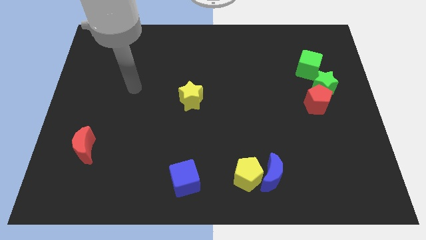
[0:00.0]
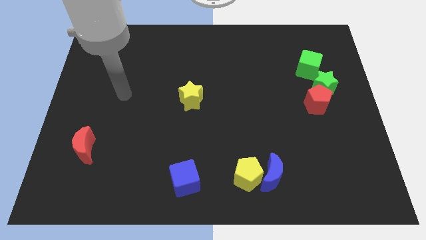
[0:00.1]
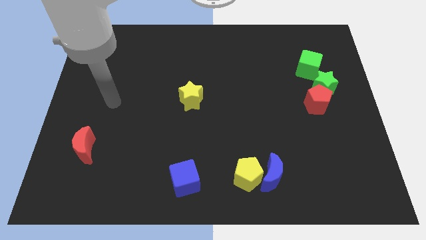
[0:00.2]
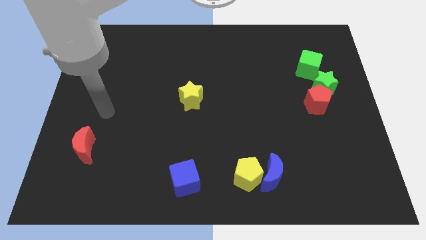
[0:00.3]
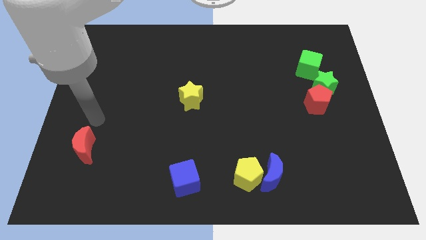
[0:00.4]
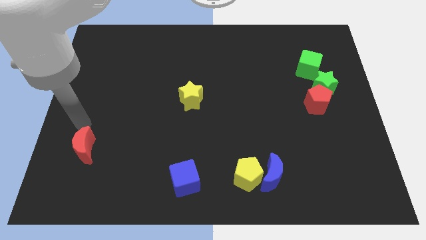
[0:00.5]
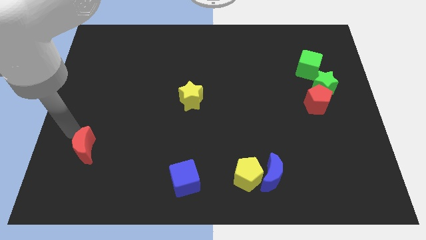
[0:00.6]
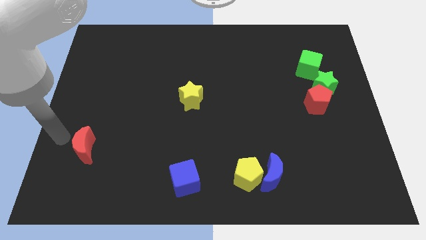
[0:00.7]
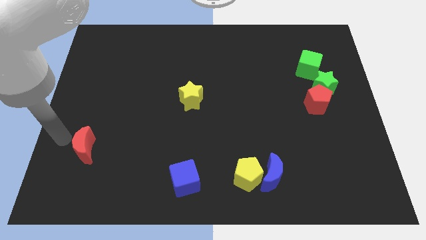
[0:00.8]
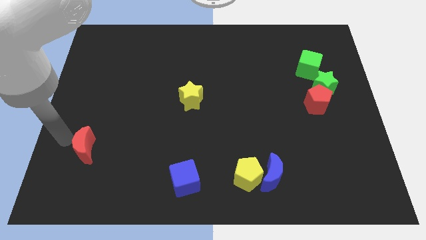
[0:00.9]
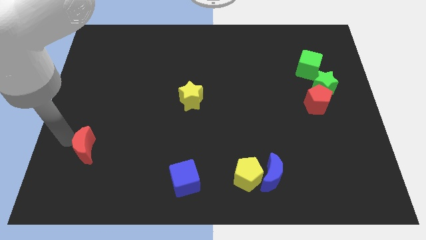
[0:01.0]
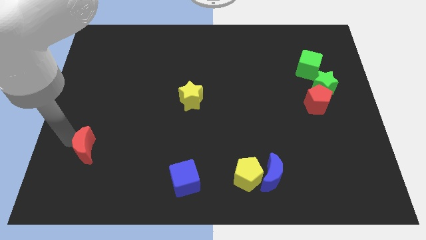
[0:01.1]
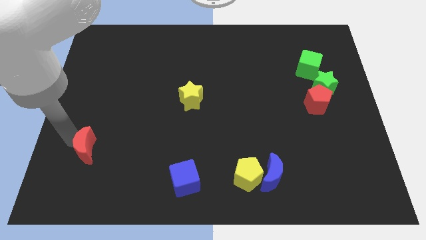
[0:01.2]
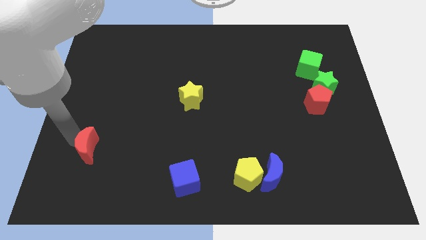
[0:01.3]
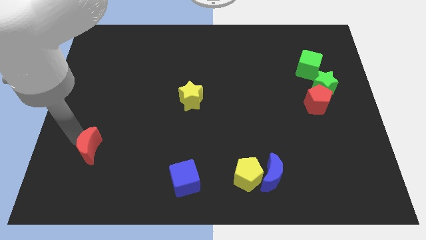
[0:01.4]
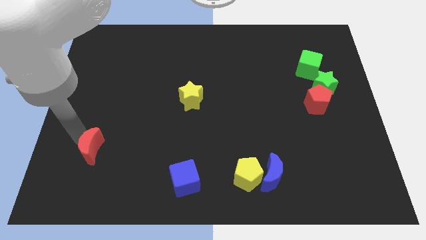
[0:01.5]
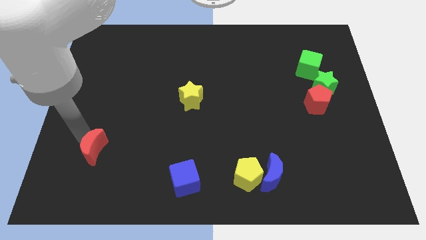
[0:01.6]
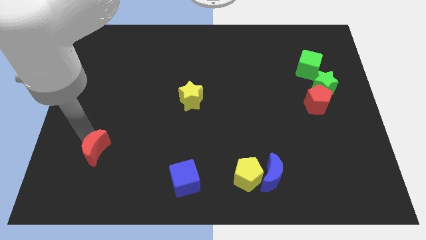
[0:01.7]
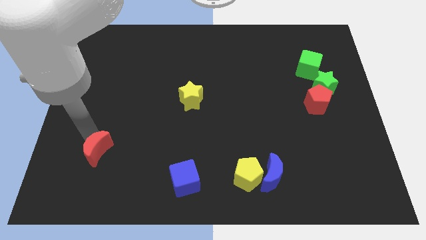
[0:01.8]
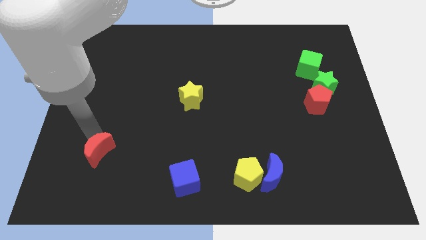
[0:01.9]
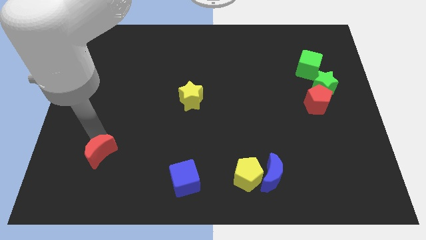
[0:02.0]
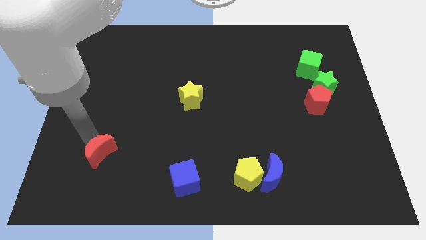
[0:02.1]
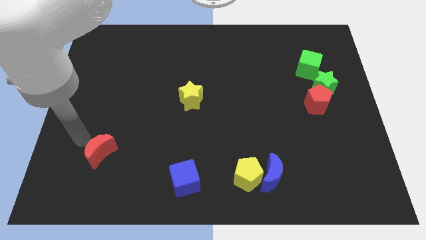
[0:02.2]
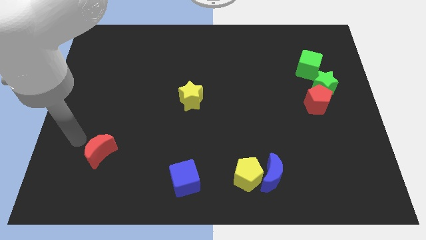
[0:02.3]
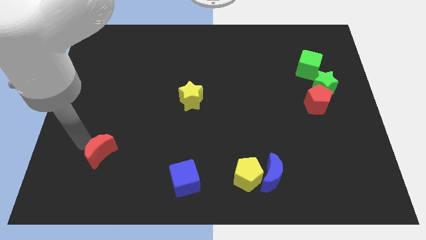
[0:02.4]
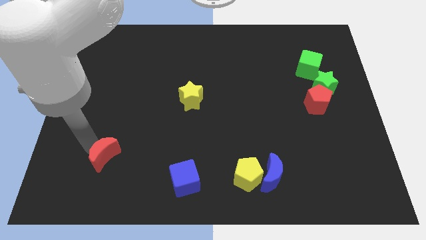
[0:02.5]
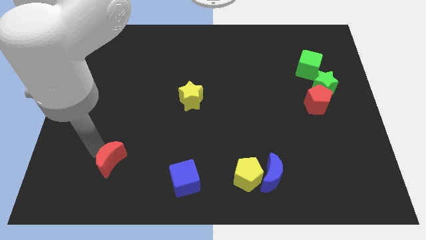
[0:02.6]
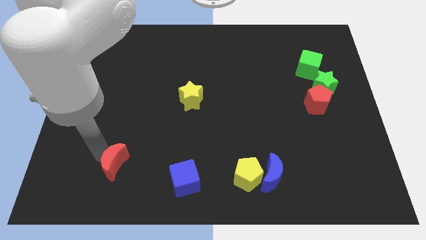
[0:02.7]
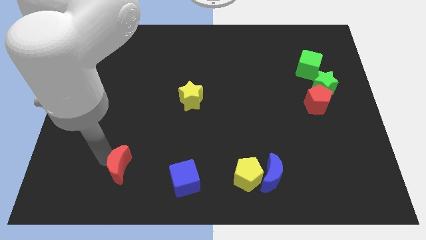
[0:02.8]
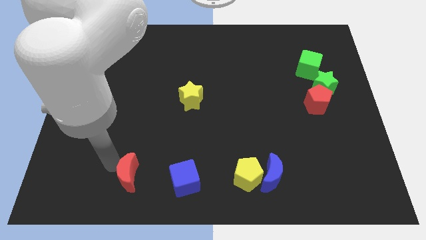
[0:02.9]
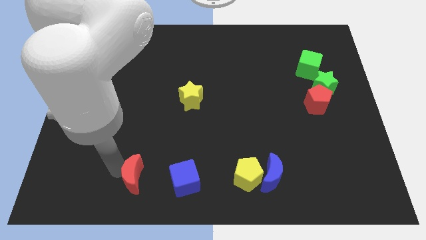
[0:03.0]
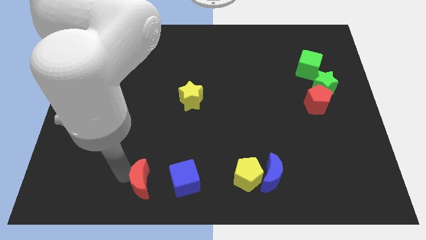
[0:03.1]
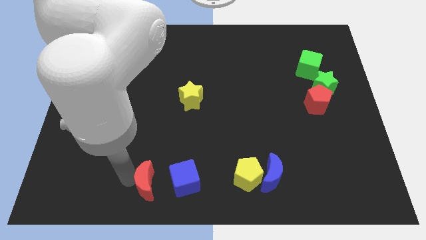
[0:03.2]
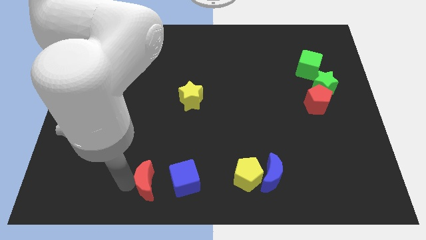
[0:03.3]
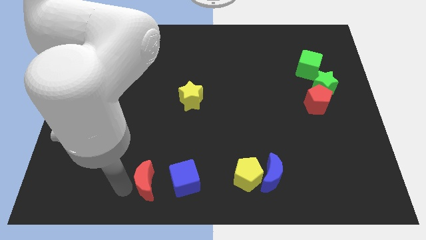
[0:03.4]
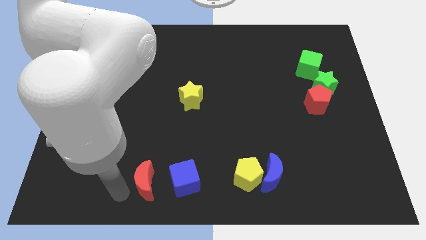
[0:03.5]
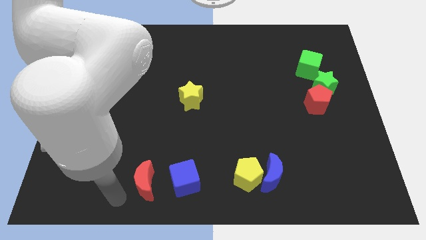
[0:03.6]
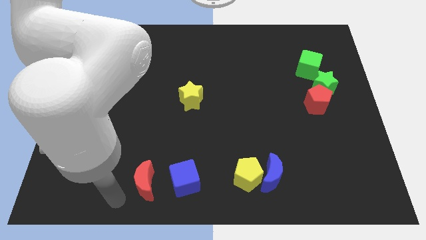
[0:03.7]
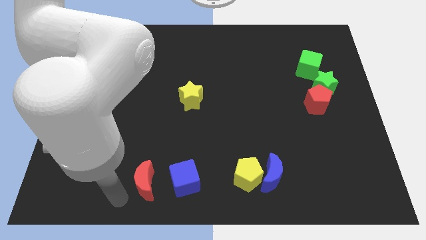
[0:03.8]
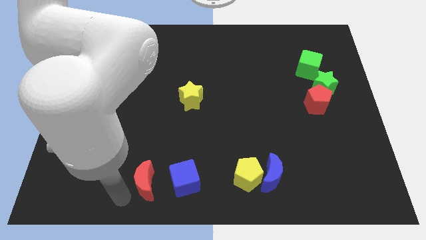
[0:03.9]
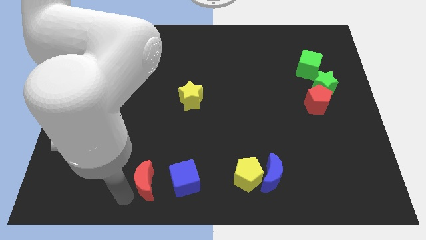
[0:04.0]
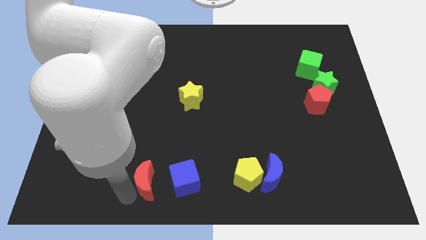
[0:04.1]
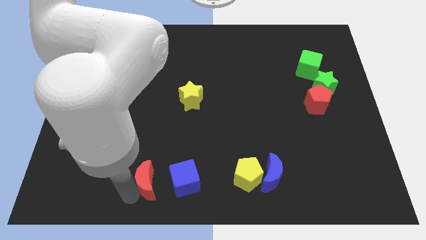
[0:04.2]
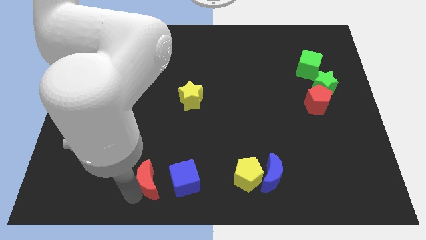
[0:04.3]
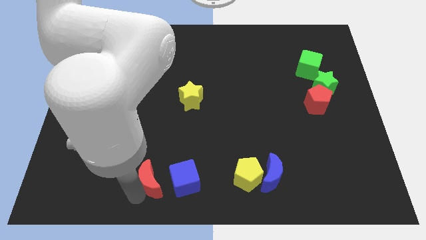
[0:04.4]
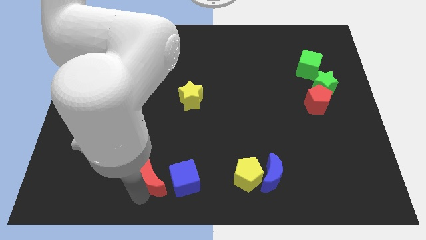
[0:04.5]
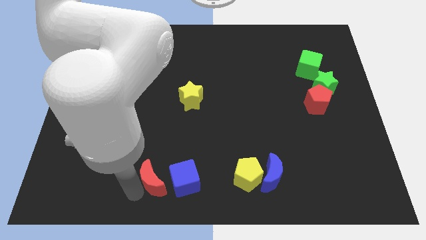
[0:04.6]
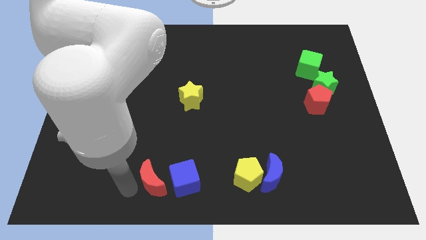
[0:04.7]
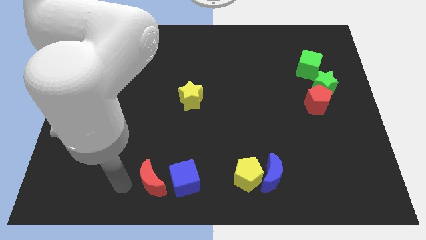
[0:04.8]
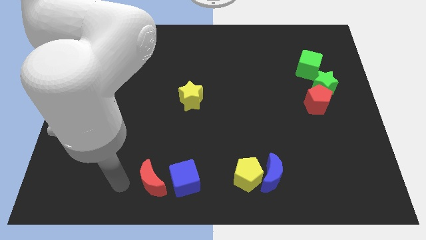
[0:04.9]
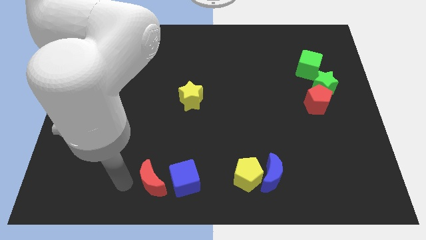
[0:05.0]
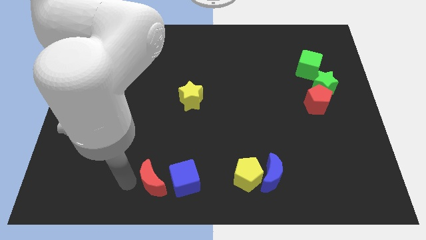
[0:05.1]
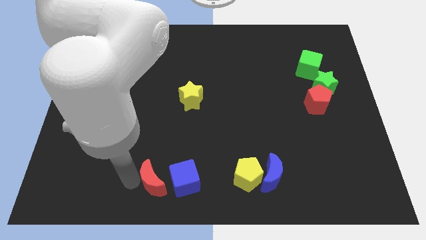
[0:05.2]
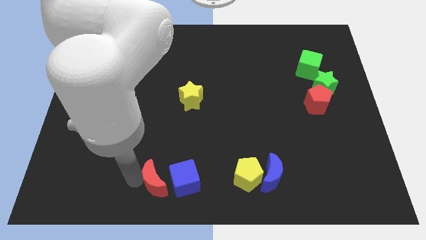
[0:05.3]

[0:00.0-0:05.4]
push the red moon next to the blue cube

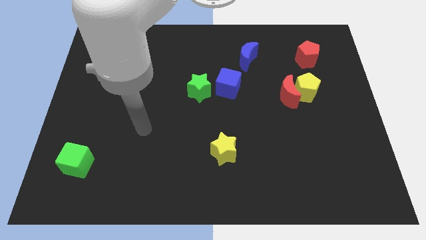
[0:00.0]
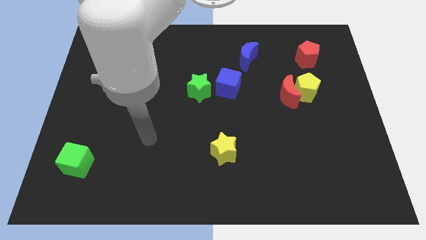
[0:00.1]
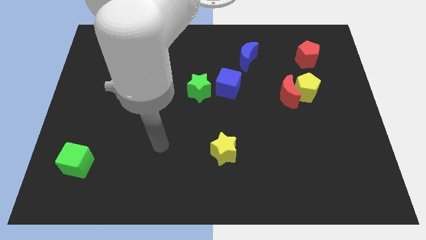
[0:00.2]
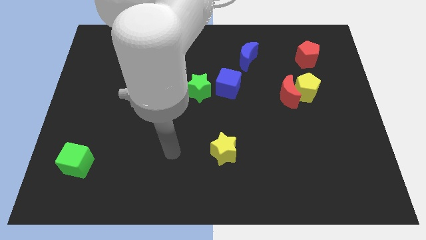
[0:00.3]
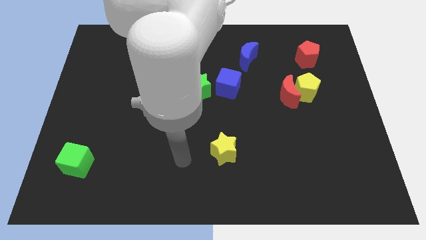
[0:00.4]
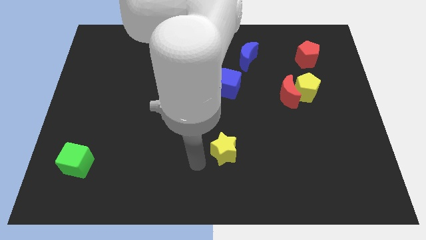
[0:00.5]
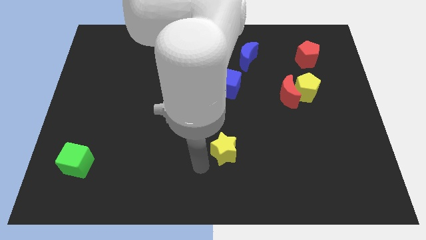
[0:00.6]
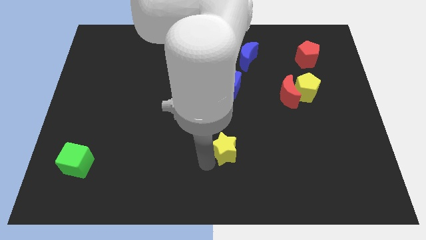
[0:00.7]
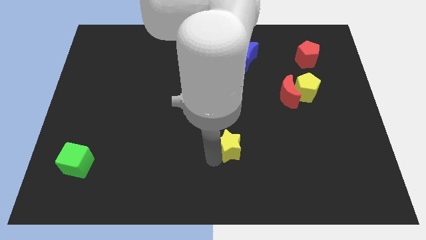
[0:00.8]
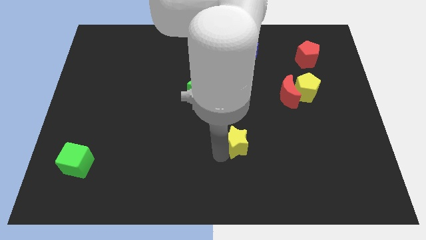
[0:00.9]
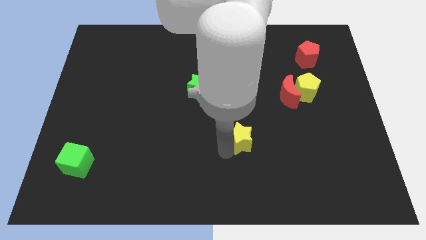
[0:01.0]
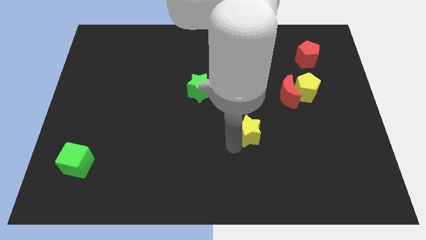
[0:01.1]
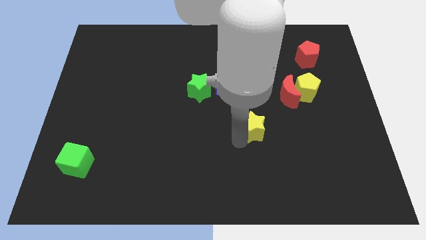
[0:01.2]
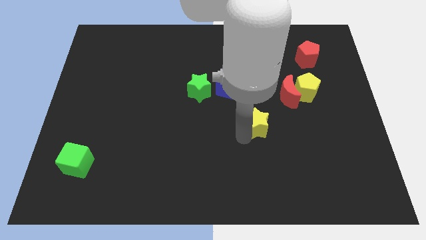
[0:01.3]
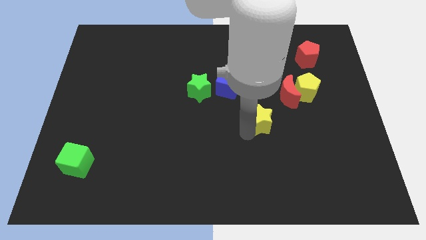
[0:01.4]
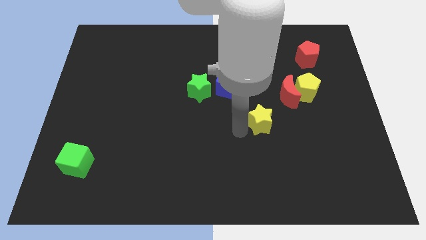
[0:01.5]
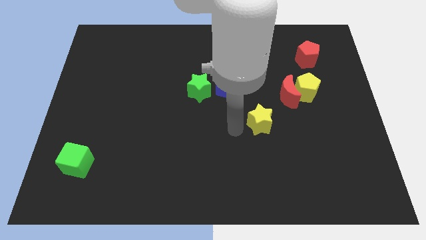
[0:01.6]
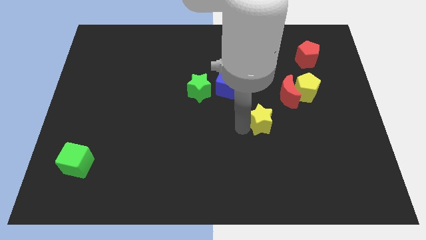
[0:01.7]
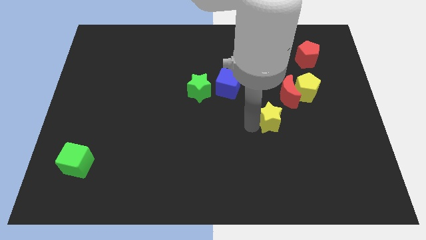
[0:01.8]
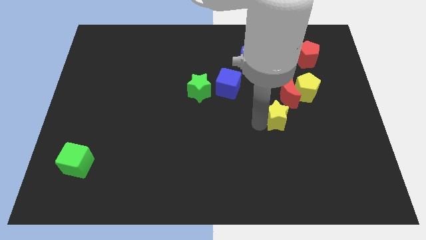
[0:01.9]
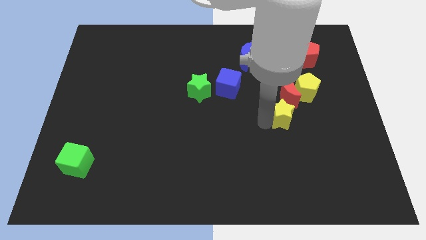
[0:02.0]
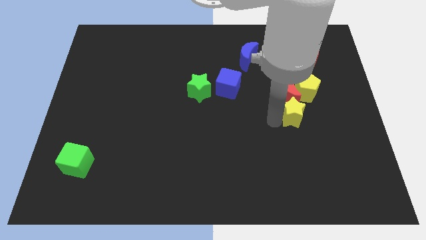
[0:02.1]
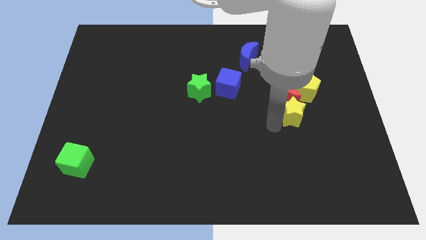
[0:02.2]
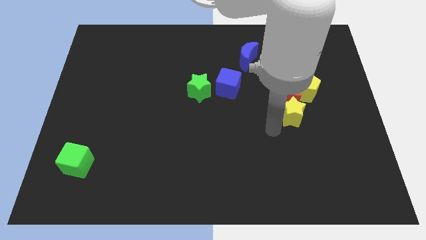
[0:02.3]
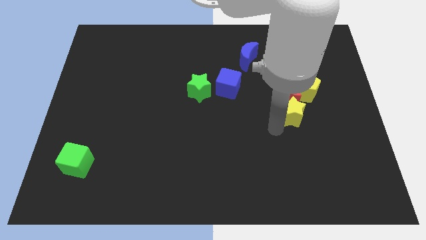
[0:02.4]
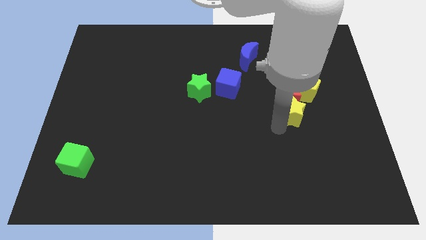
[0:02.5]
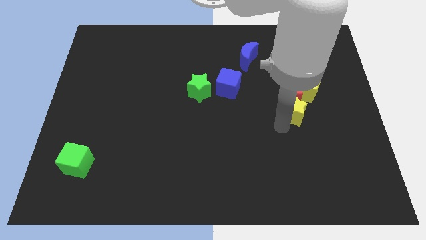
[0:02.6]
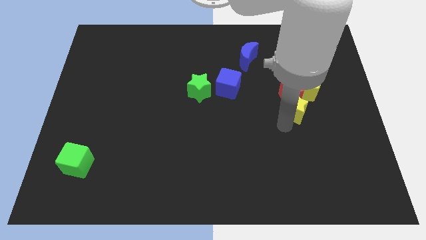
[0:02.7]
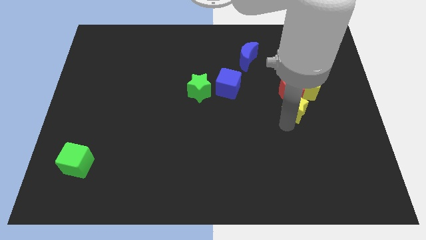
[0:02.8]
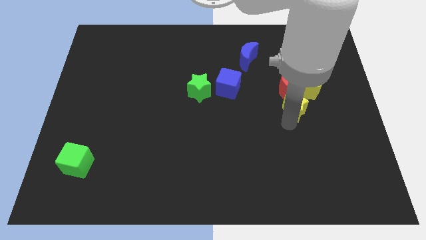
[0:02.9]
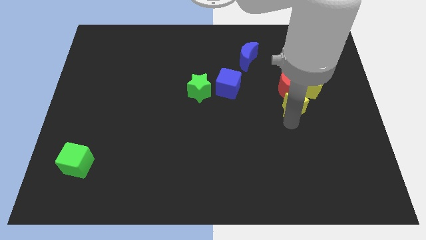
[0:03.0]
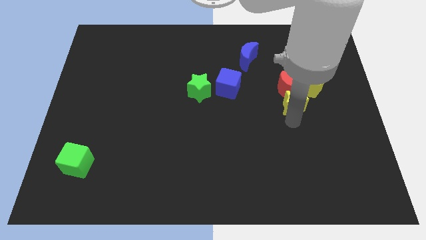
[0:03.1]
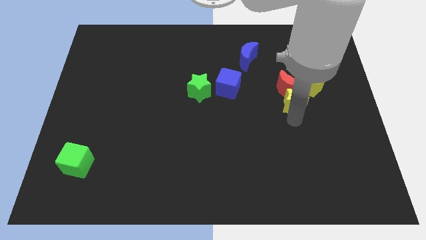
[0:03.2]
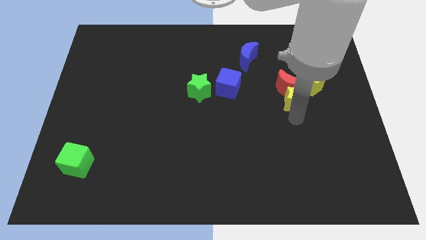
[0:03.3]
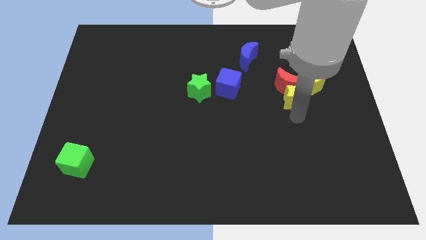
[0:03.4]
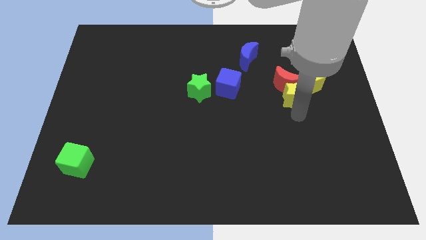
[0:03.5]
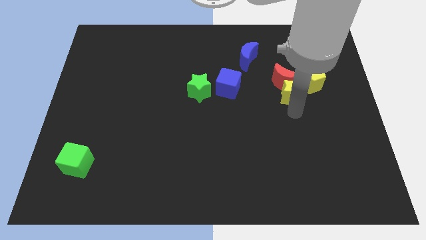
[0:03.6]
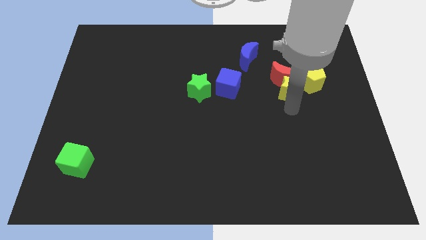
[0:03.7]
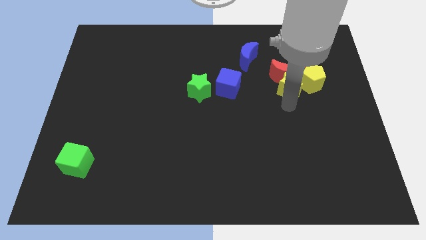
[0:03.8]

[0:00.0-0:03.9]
slide the yellow star to the yellow pentagon
